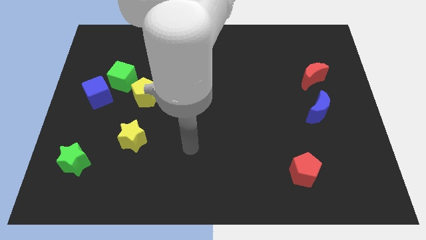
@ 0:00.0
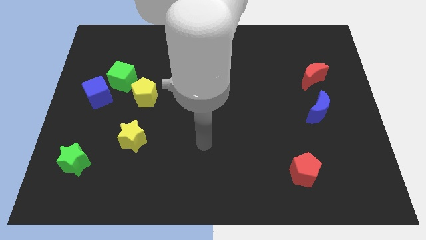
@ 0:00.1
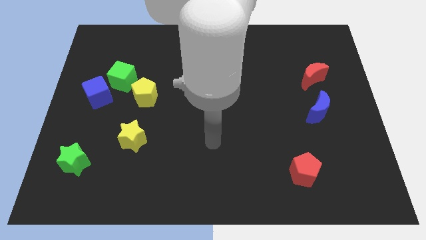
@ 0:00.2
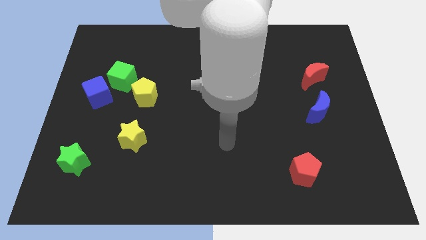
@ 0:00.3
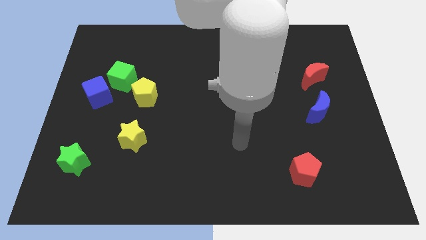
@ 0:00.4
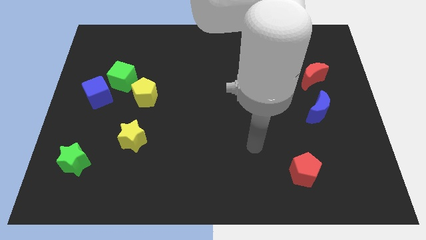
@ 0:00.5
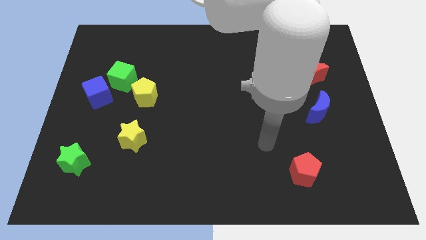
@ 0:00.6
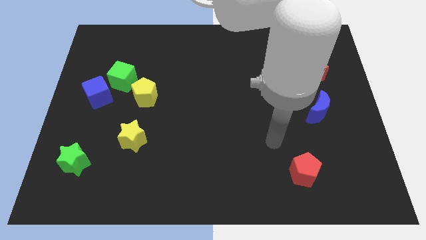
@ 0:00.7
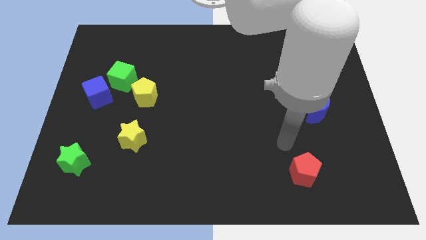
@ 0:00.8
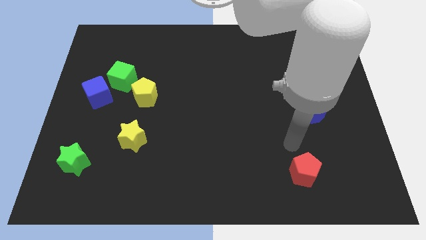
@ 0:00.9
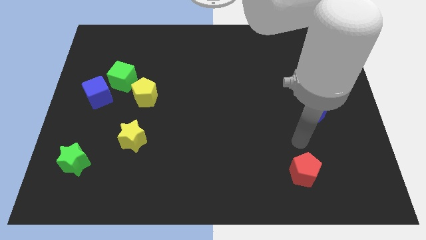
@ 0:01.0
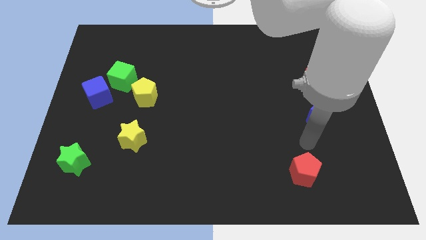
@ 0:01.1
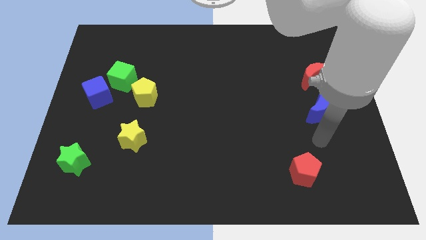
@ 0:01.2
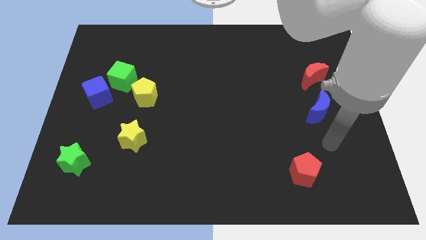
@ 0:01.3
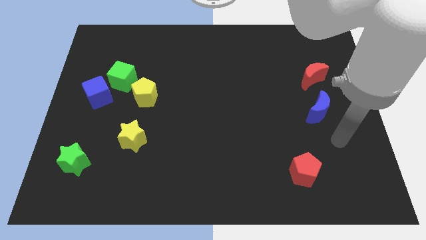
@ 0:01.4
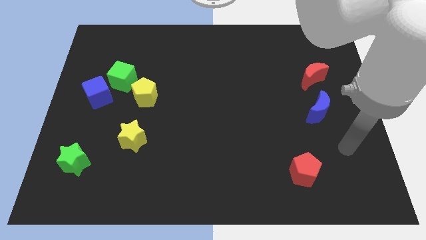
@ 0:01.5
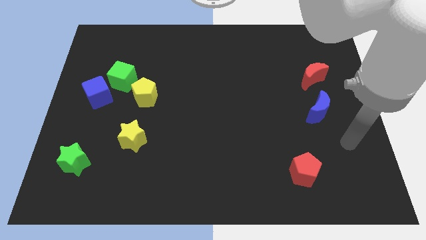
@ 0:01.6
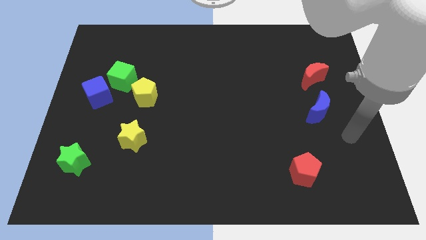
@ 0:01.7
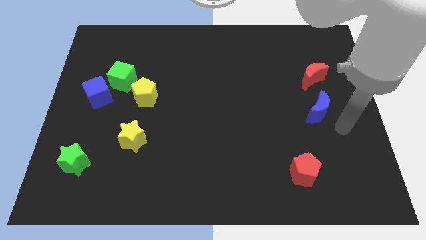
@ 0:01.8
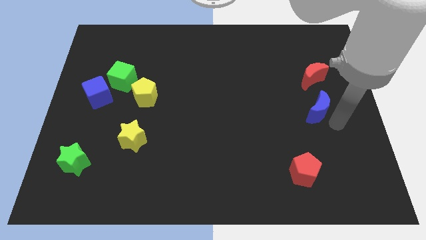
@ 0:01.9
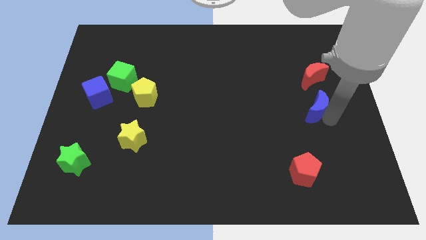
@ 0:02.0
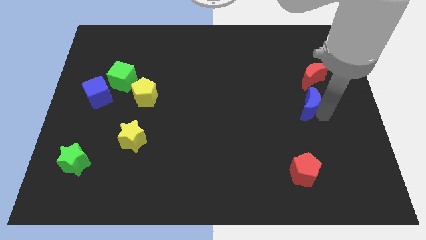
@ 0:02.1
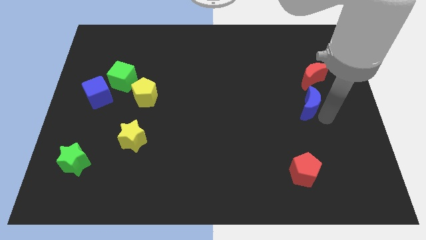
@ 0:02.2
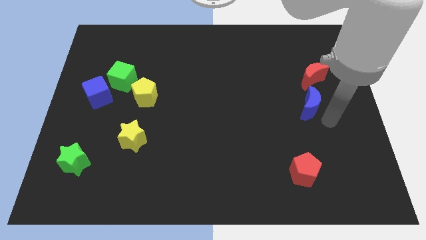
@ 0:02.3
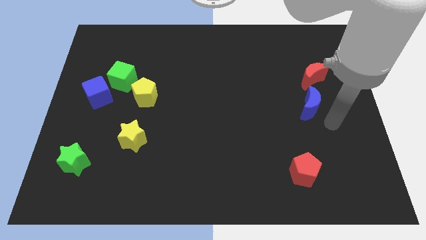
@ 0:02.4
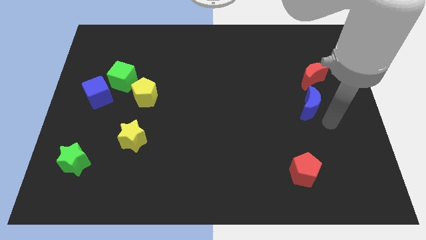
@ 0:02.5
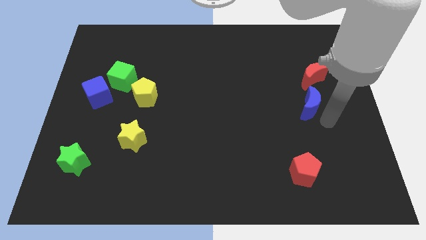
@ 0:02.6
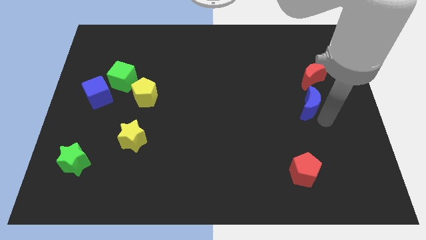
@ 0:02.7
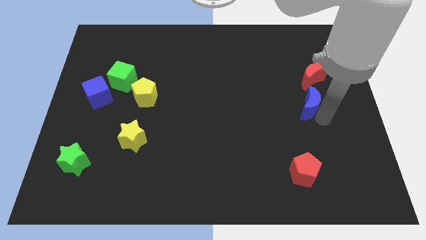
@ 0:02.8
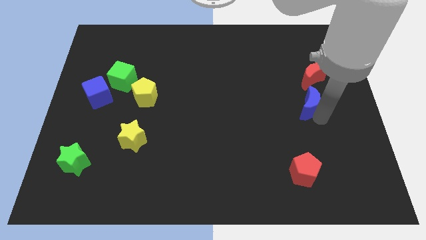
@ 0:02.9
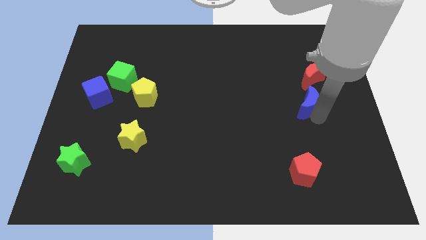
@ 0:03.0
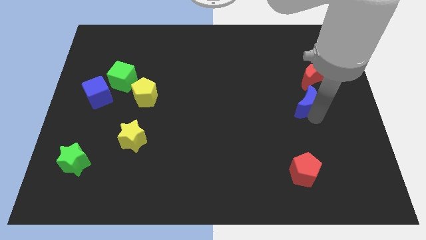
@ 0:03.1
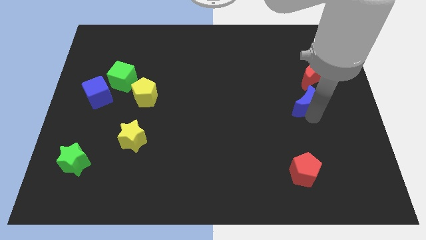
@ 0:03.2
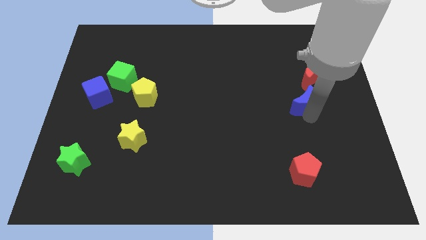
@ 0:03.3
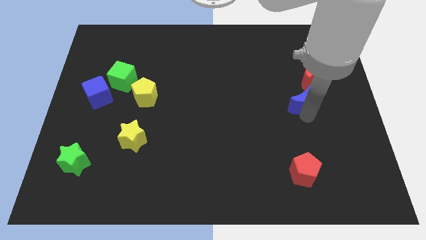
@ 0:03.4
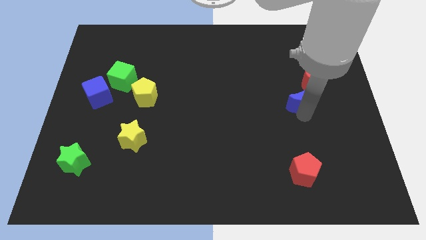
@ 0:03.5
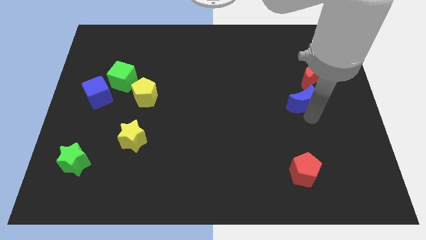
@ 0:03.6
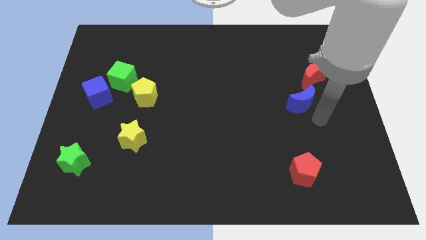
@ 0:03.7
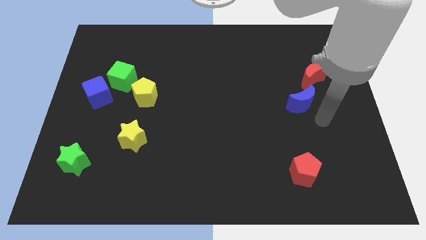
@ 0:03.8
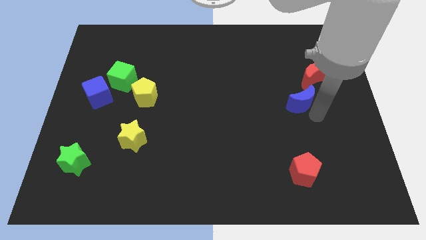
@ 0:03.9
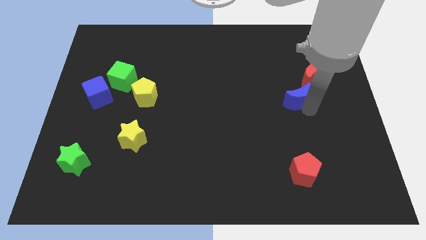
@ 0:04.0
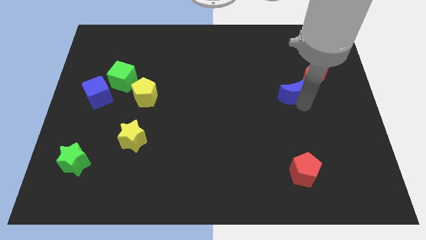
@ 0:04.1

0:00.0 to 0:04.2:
push the blue moon up and then left slightly

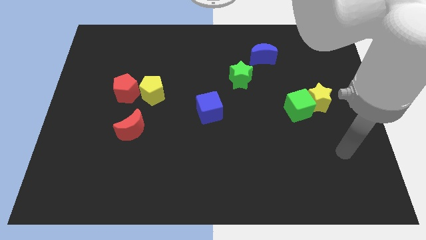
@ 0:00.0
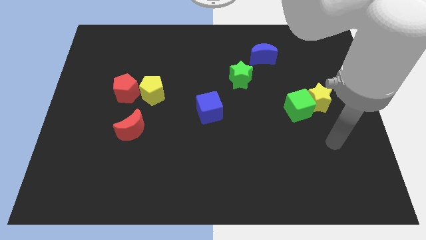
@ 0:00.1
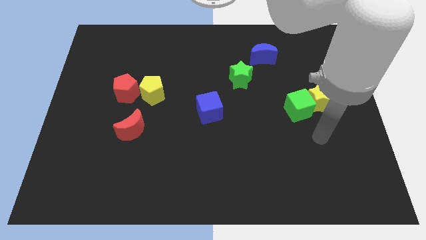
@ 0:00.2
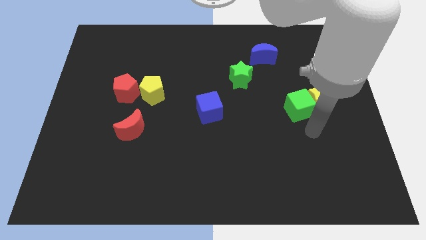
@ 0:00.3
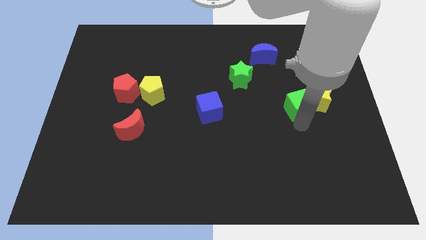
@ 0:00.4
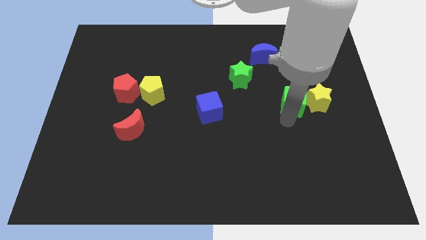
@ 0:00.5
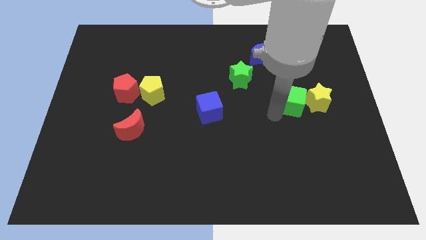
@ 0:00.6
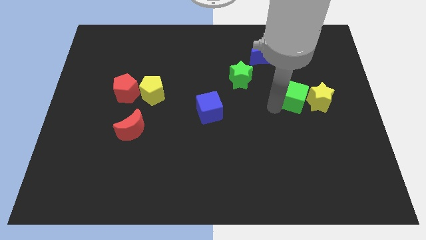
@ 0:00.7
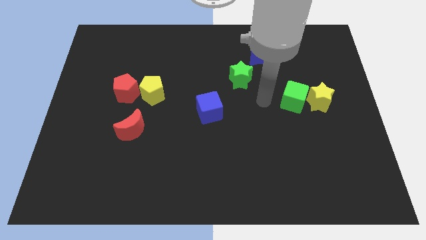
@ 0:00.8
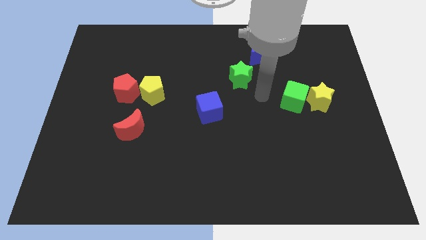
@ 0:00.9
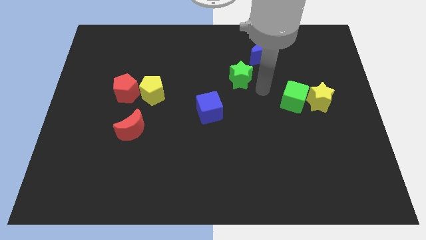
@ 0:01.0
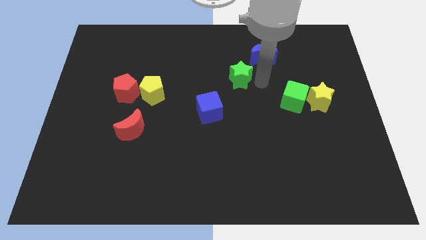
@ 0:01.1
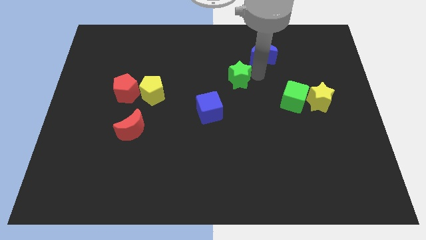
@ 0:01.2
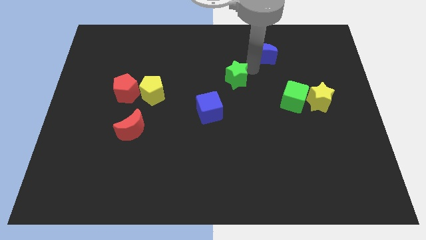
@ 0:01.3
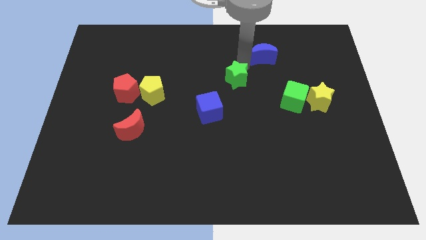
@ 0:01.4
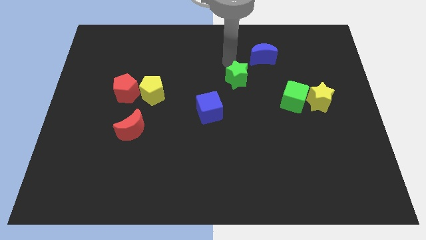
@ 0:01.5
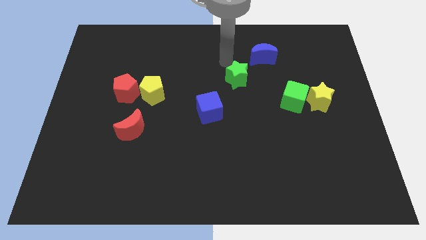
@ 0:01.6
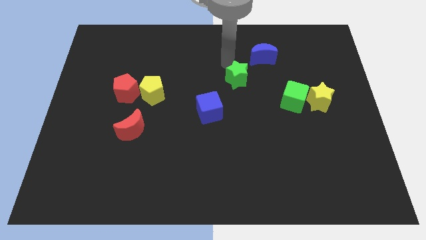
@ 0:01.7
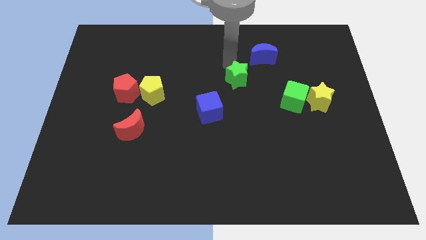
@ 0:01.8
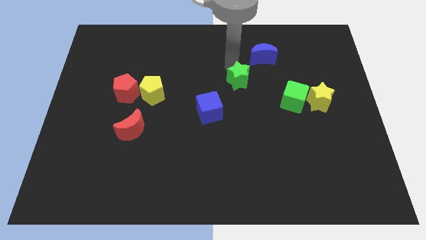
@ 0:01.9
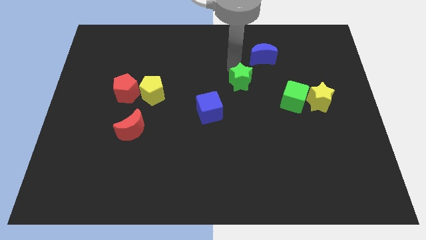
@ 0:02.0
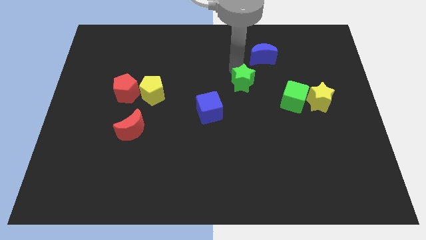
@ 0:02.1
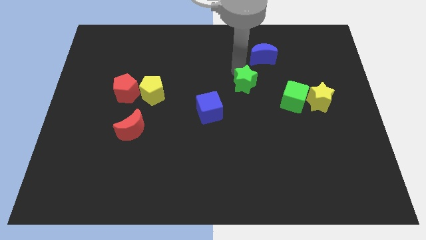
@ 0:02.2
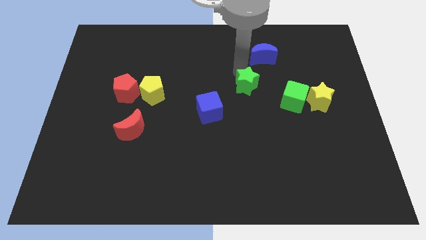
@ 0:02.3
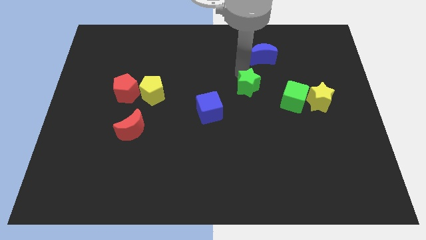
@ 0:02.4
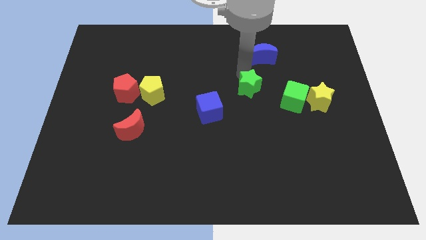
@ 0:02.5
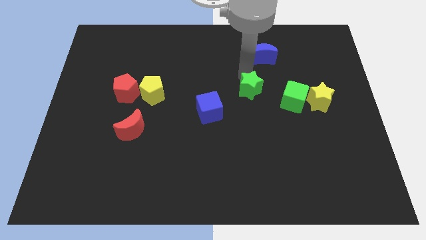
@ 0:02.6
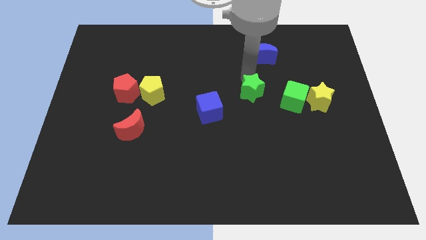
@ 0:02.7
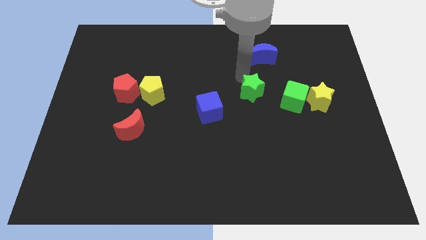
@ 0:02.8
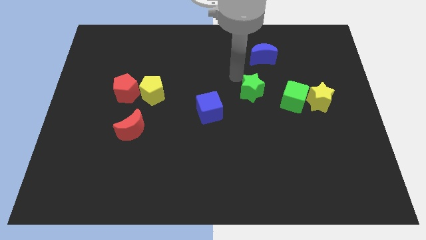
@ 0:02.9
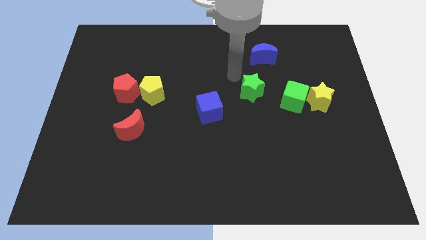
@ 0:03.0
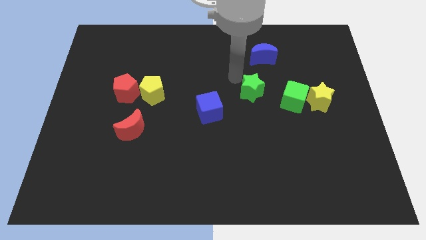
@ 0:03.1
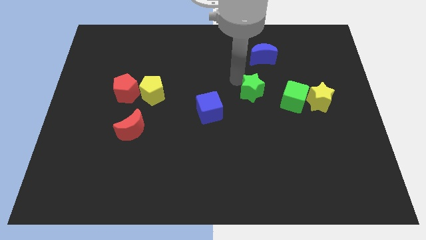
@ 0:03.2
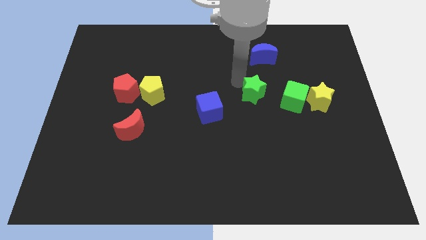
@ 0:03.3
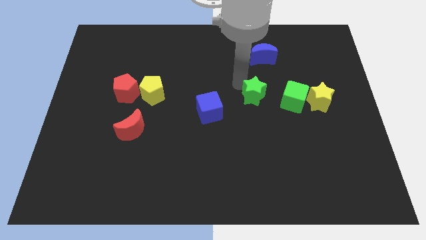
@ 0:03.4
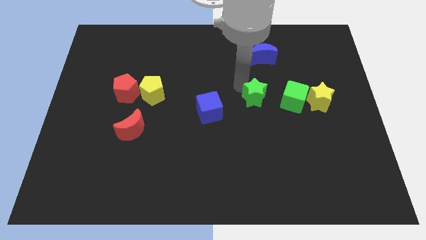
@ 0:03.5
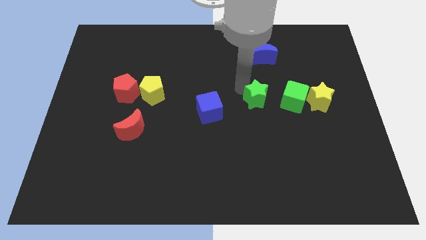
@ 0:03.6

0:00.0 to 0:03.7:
push the green star down and right diagonally slightly

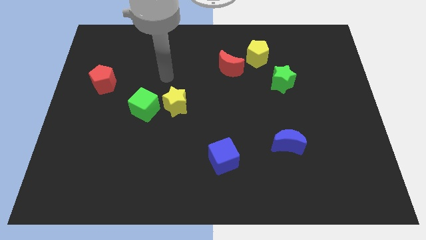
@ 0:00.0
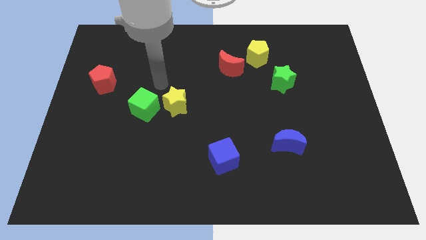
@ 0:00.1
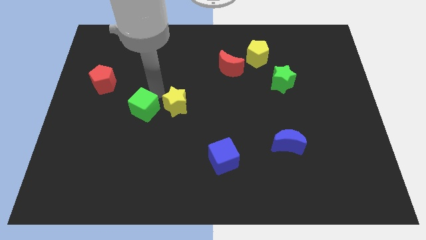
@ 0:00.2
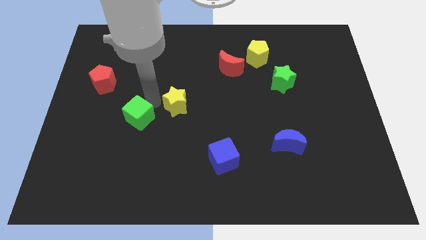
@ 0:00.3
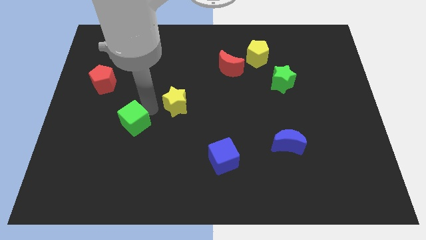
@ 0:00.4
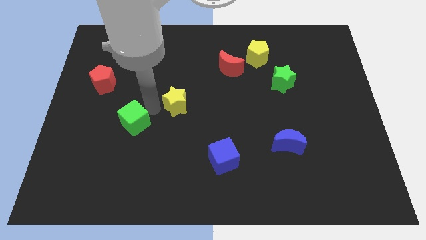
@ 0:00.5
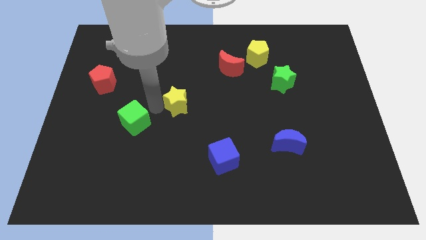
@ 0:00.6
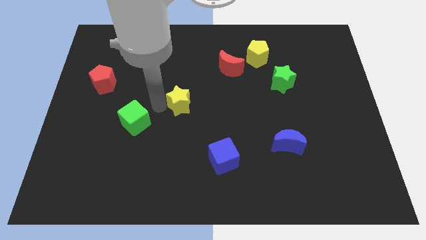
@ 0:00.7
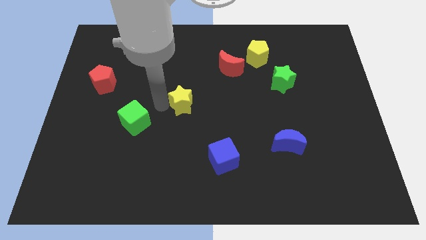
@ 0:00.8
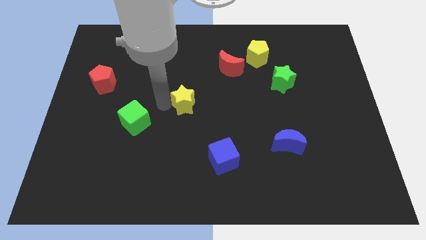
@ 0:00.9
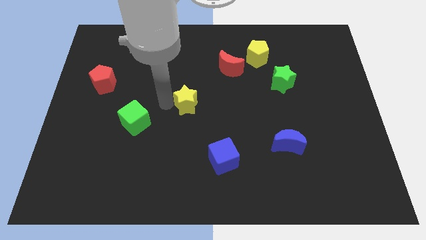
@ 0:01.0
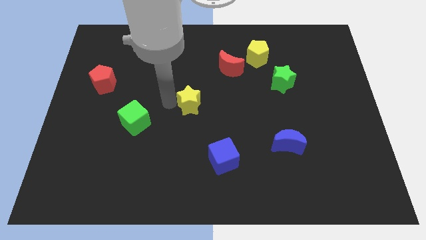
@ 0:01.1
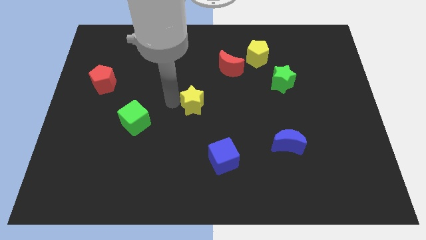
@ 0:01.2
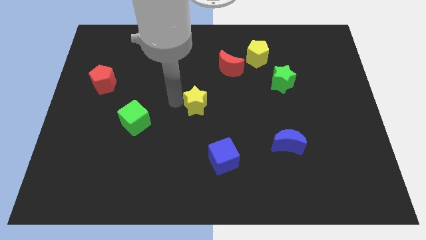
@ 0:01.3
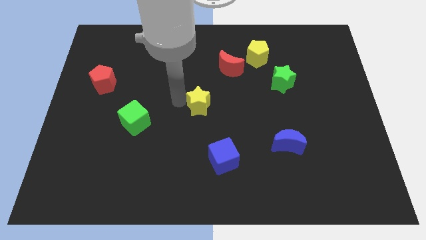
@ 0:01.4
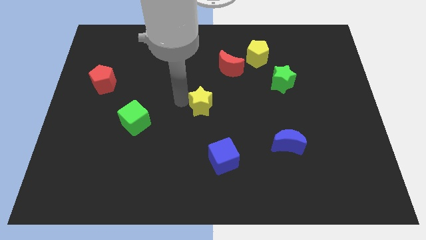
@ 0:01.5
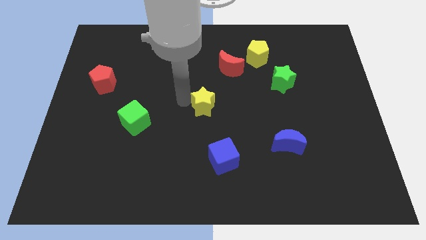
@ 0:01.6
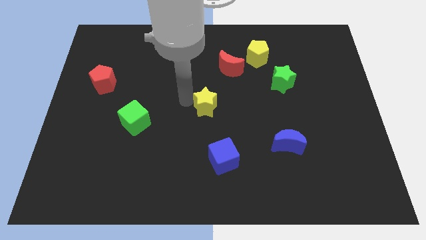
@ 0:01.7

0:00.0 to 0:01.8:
slightly move the yellow star to the right
